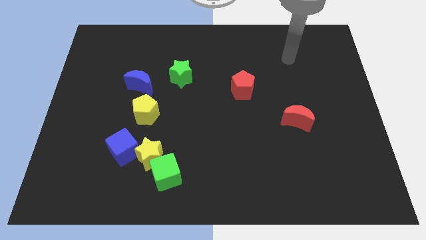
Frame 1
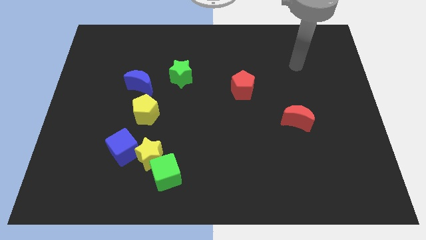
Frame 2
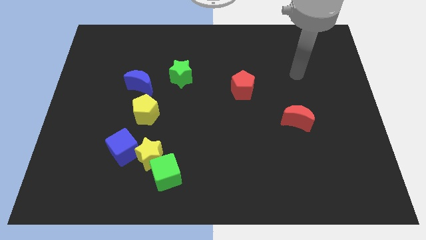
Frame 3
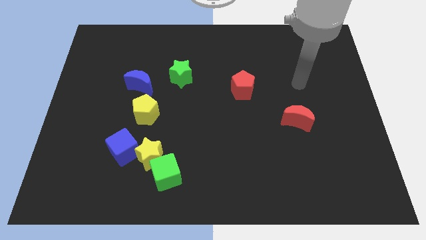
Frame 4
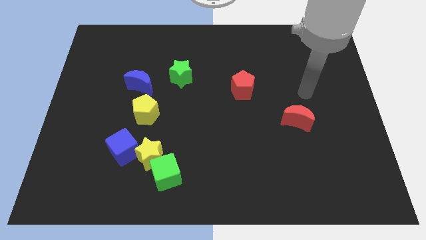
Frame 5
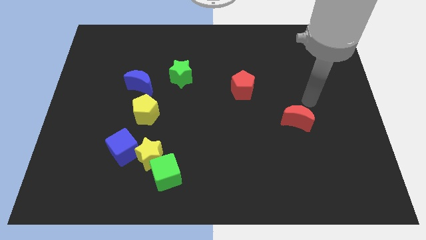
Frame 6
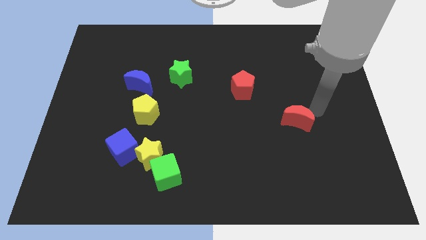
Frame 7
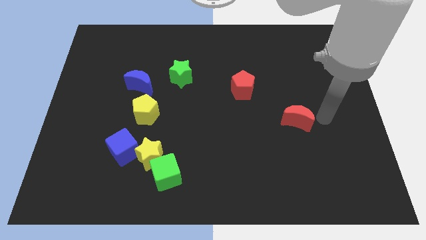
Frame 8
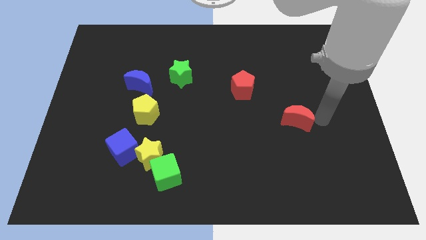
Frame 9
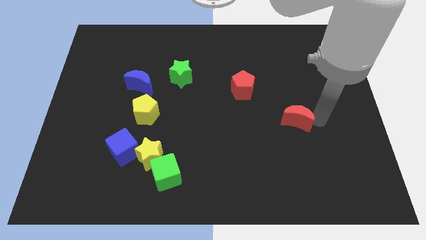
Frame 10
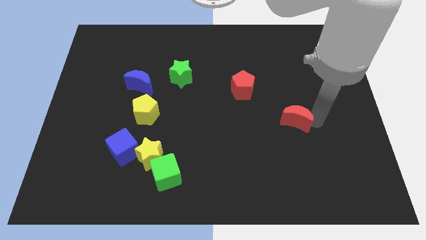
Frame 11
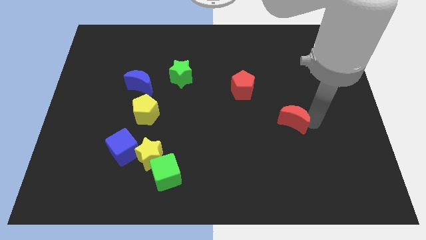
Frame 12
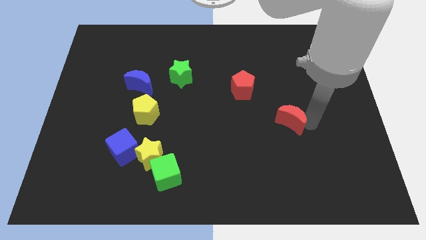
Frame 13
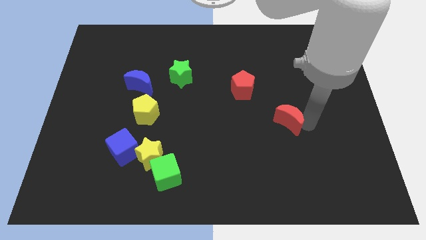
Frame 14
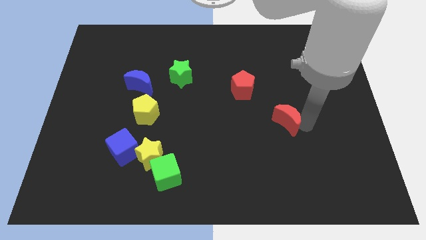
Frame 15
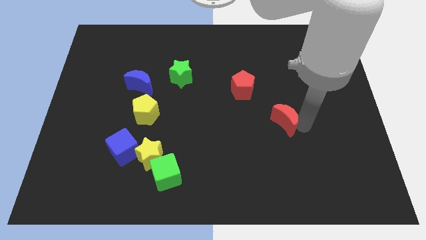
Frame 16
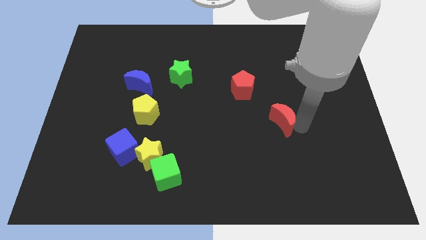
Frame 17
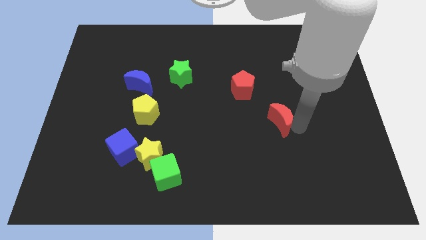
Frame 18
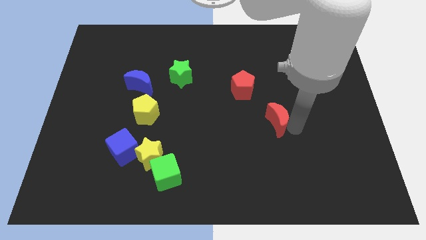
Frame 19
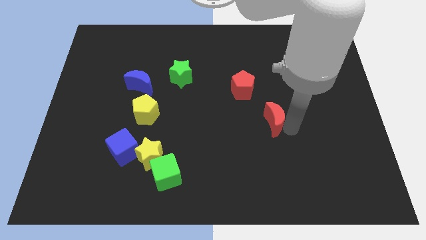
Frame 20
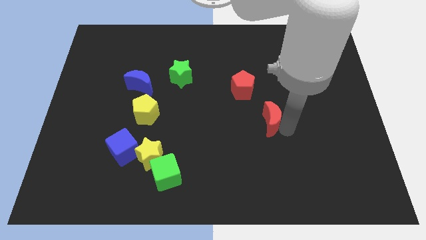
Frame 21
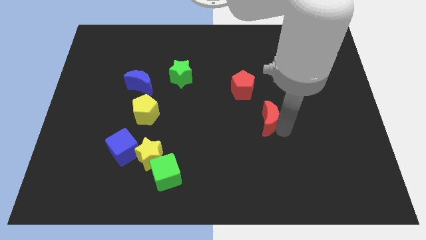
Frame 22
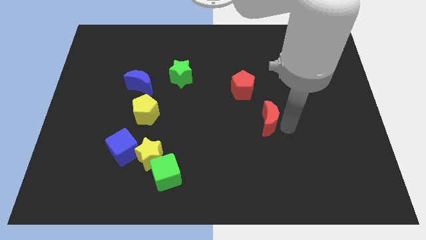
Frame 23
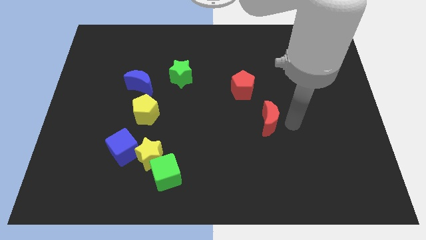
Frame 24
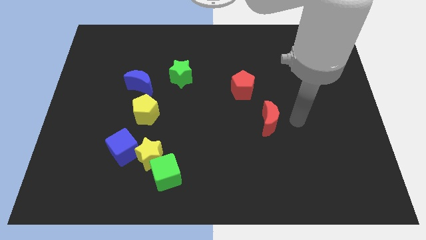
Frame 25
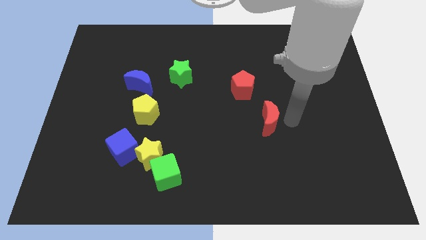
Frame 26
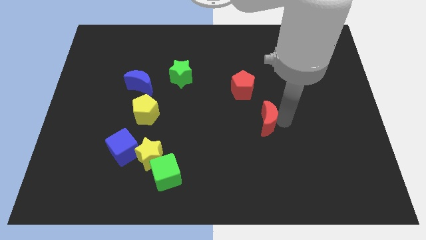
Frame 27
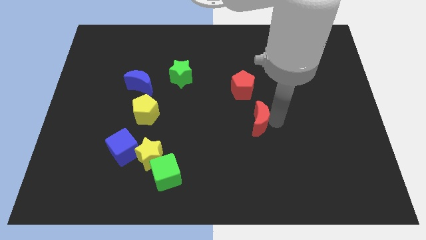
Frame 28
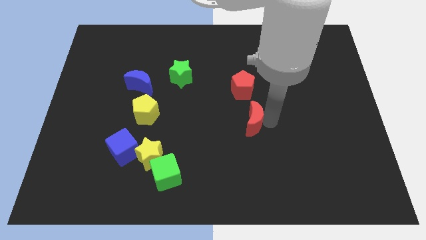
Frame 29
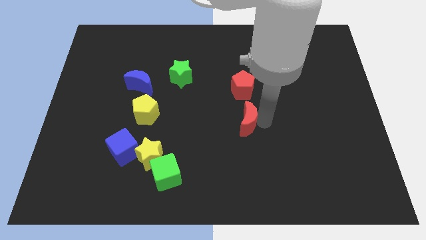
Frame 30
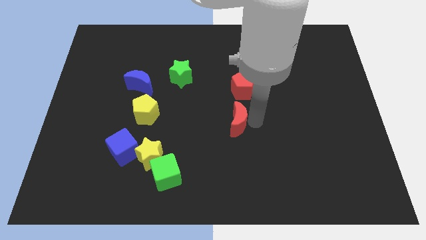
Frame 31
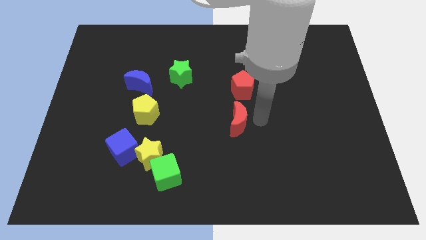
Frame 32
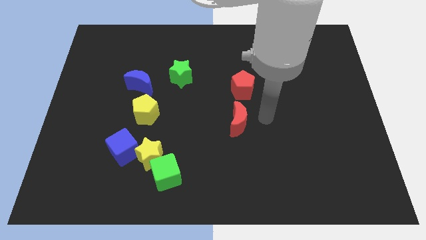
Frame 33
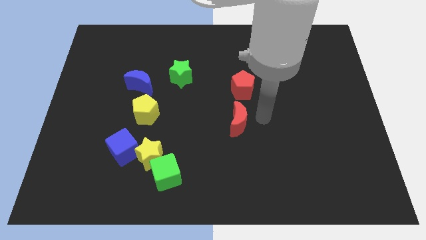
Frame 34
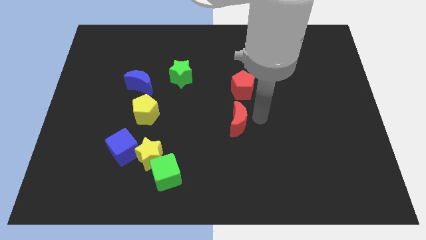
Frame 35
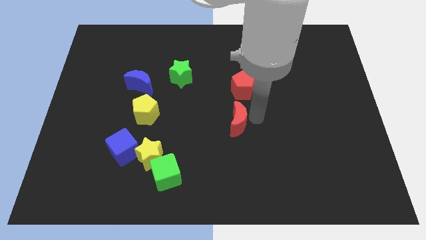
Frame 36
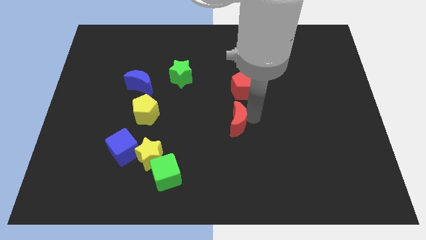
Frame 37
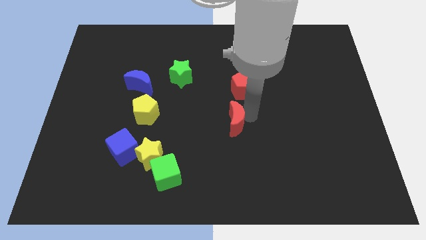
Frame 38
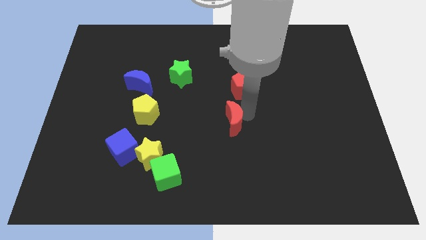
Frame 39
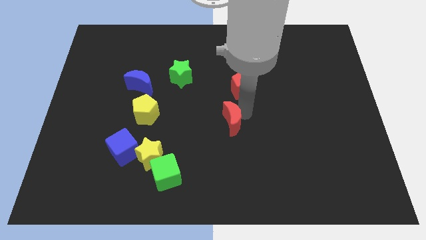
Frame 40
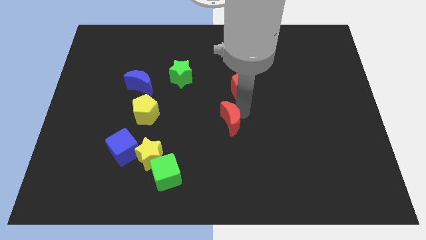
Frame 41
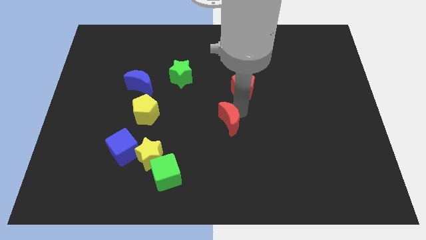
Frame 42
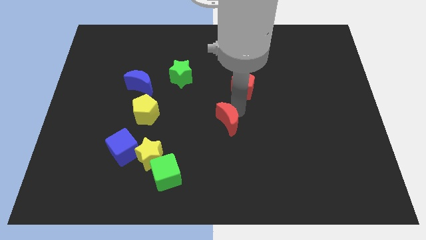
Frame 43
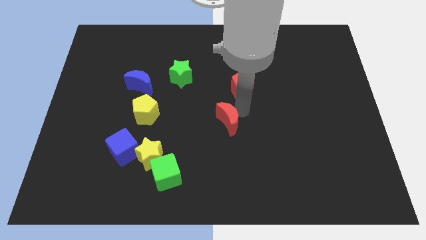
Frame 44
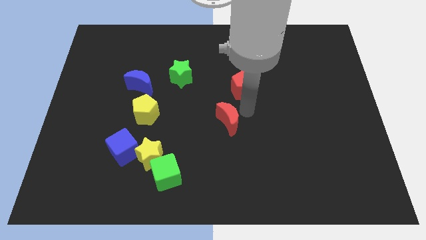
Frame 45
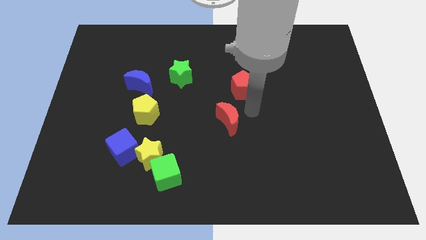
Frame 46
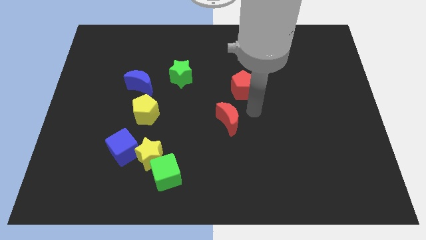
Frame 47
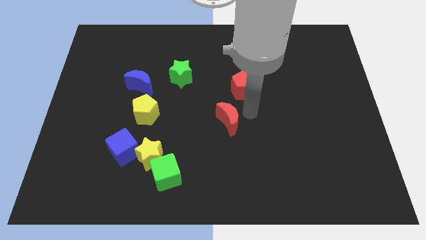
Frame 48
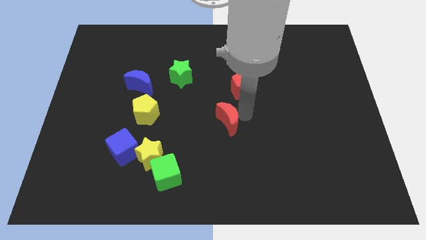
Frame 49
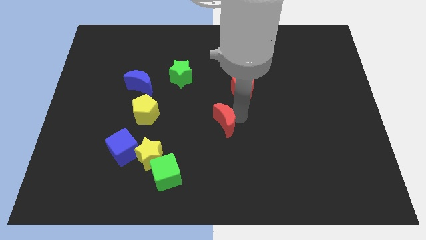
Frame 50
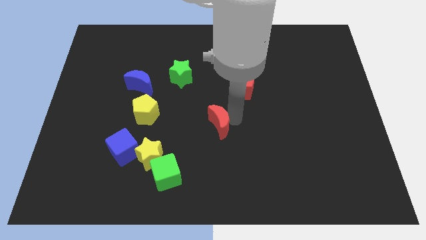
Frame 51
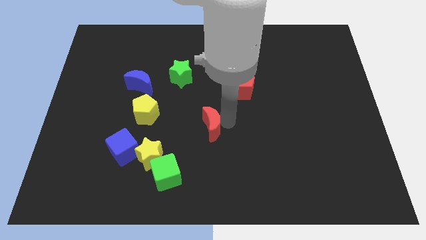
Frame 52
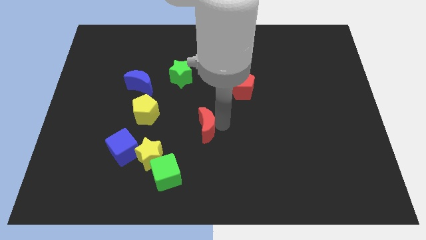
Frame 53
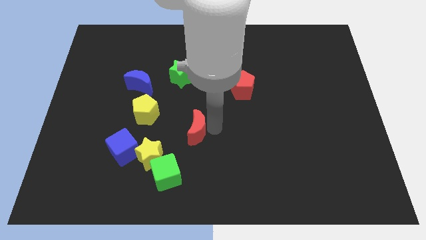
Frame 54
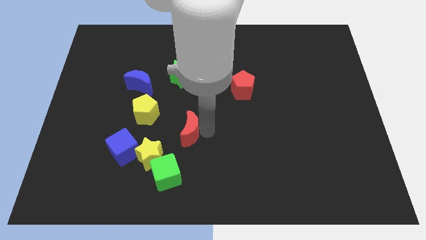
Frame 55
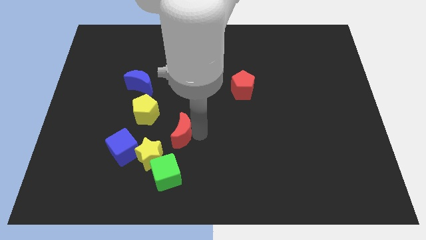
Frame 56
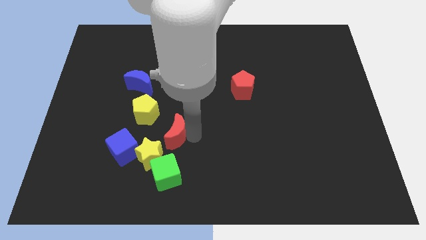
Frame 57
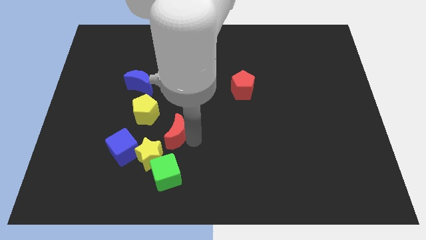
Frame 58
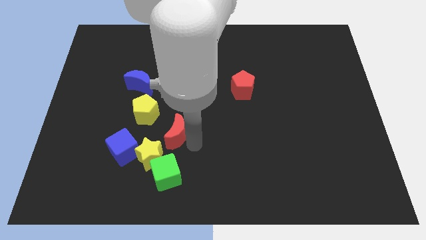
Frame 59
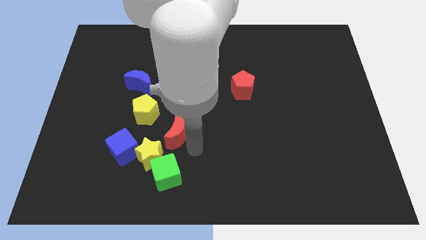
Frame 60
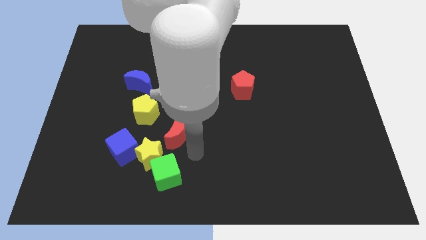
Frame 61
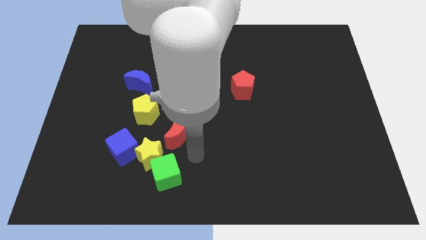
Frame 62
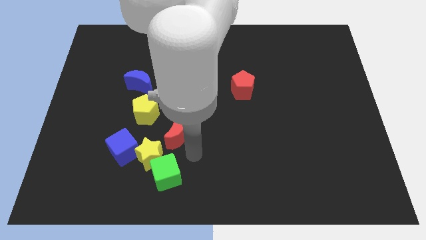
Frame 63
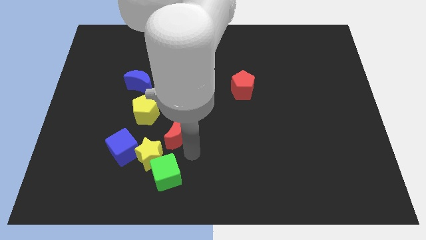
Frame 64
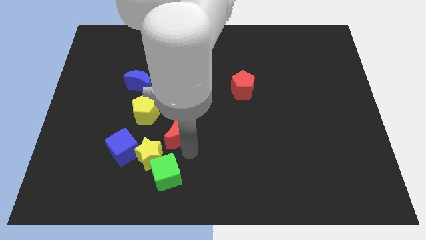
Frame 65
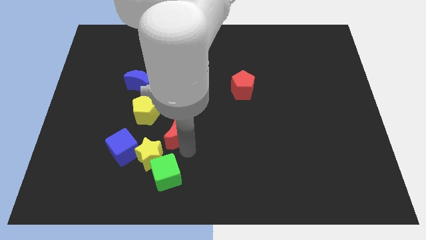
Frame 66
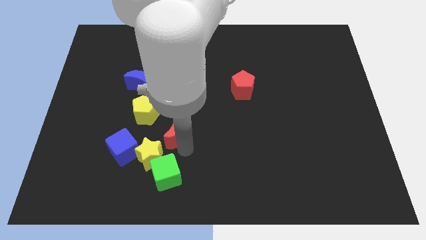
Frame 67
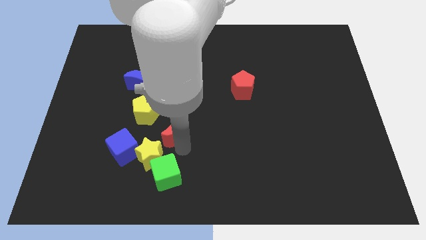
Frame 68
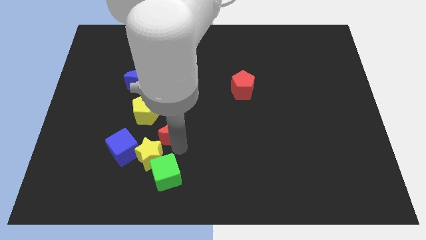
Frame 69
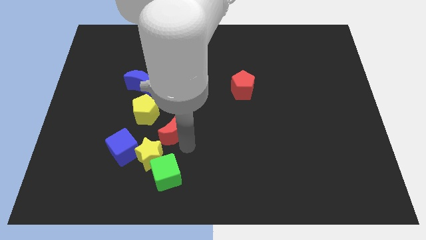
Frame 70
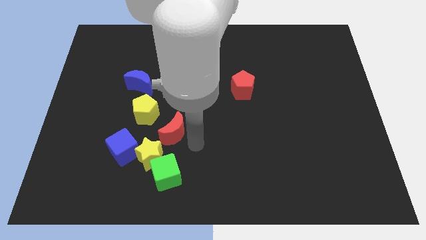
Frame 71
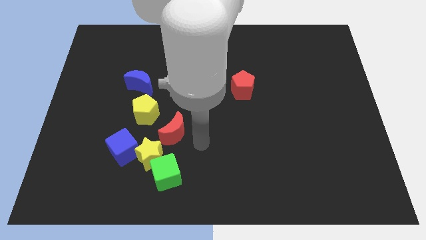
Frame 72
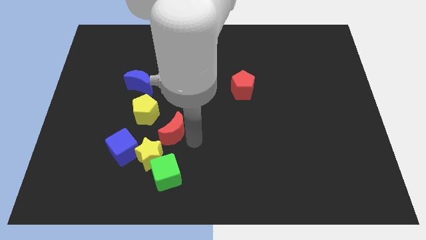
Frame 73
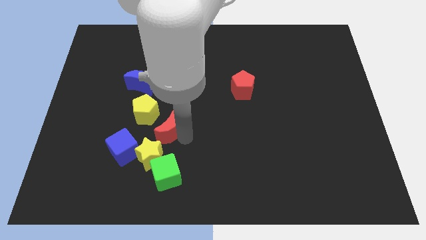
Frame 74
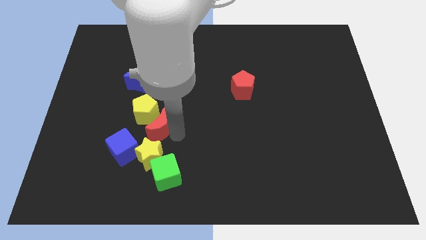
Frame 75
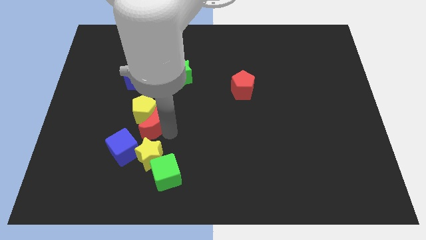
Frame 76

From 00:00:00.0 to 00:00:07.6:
push the red moon to the bottom of the blue moon
